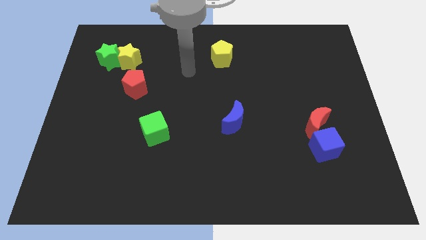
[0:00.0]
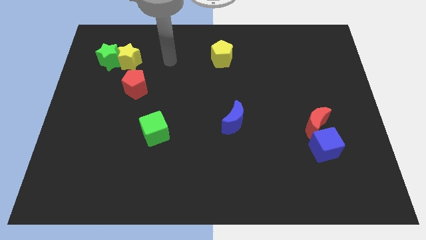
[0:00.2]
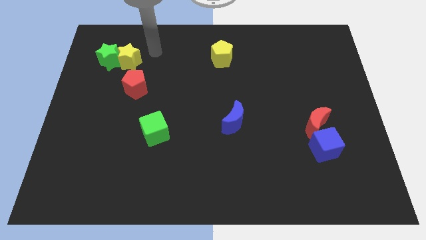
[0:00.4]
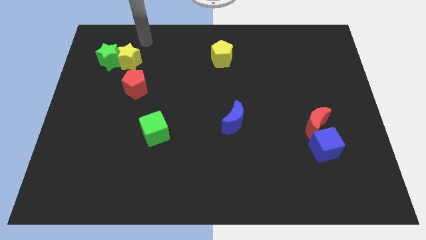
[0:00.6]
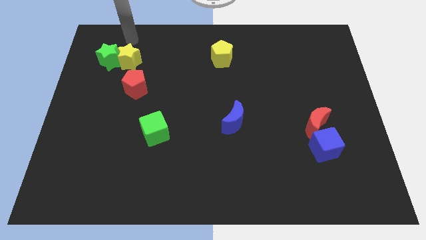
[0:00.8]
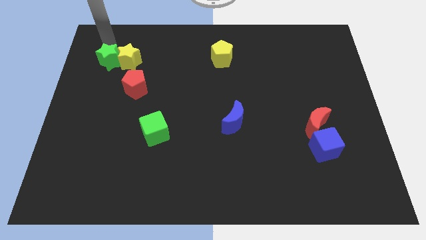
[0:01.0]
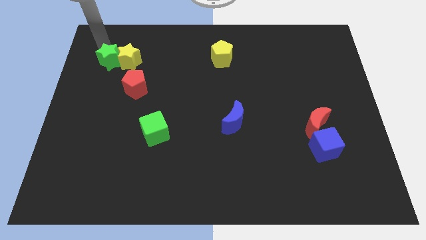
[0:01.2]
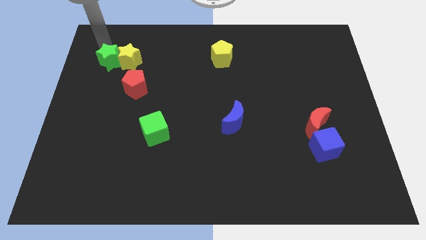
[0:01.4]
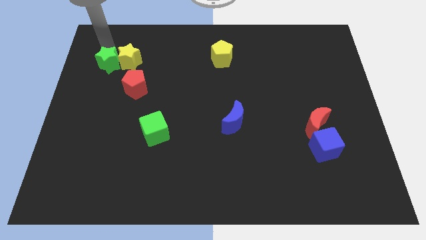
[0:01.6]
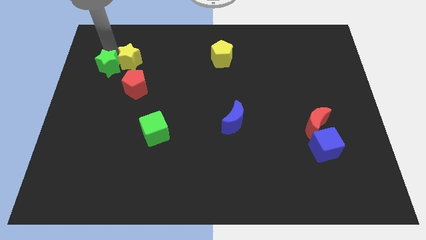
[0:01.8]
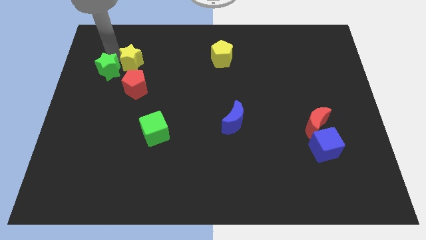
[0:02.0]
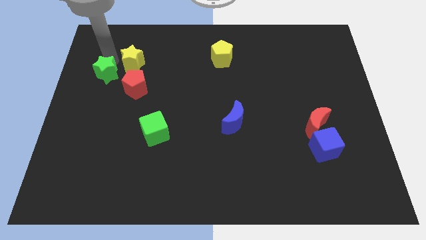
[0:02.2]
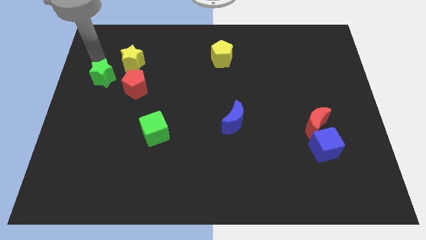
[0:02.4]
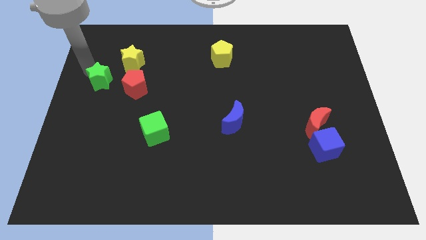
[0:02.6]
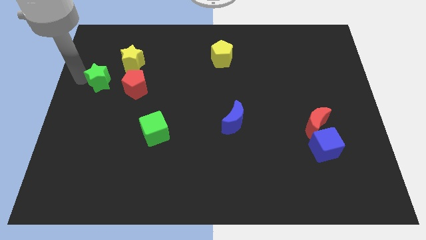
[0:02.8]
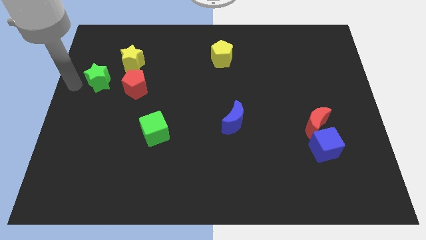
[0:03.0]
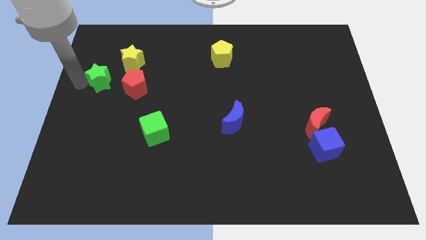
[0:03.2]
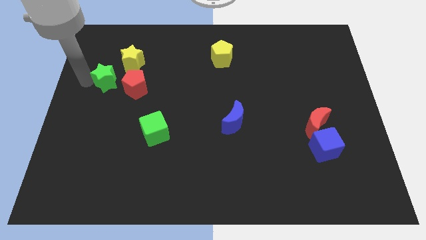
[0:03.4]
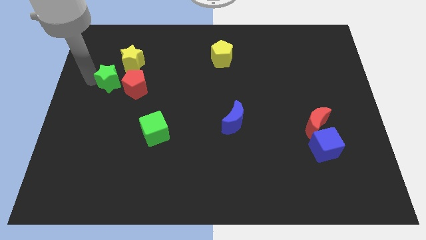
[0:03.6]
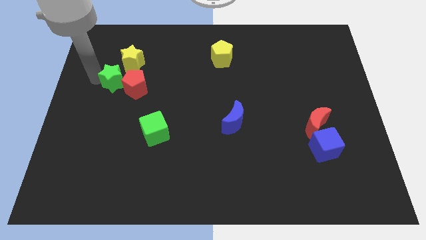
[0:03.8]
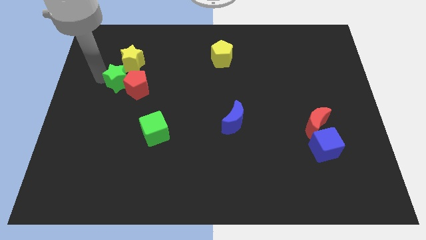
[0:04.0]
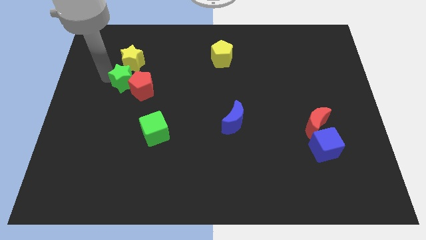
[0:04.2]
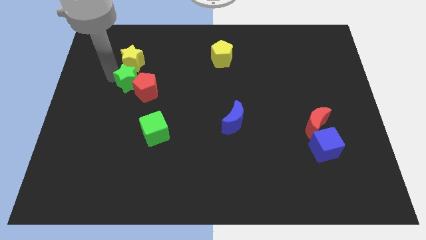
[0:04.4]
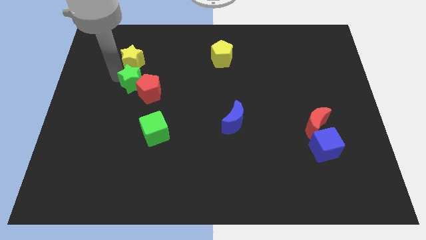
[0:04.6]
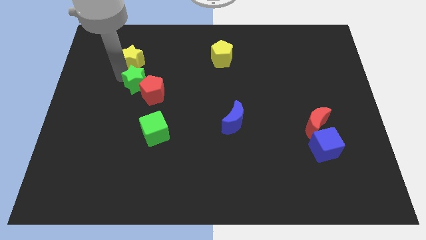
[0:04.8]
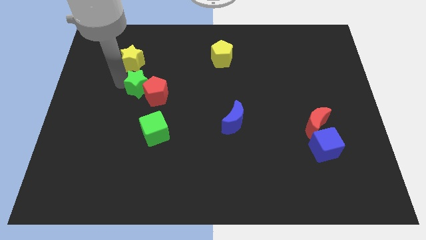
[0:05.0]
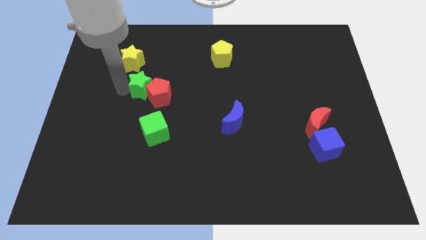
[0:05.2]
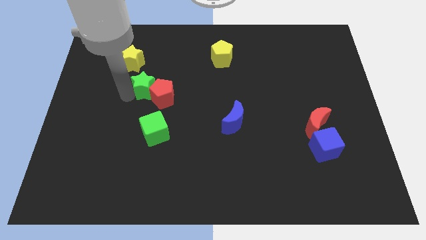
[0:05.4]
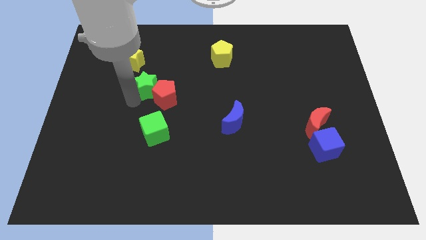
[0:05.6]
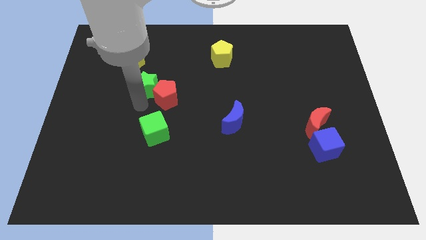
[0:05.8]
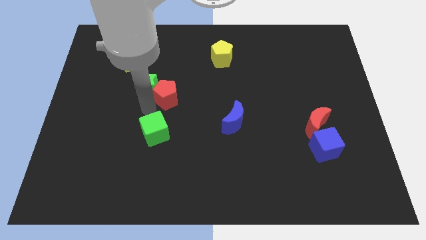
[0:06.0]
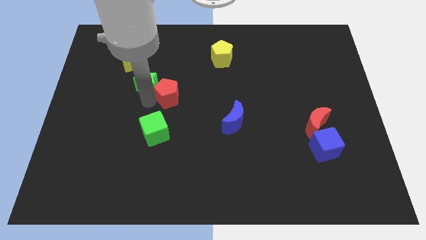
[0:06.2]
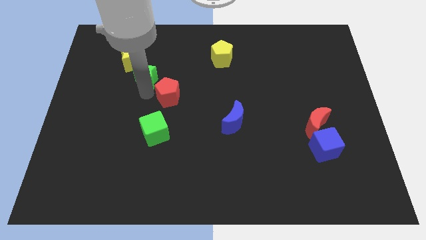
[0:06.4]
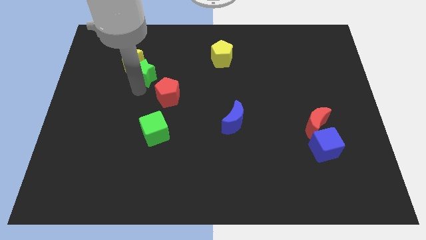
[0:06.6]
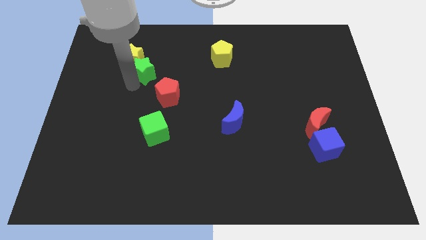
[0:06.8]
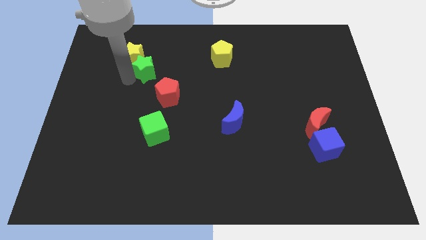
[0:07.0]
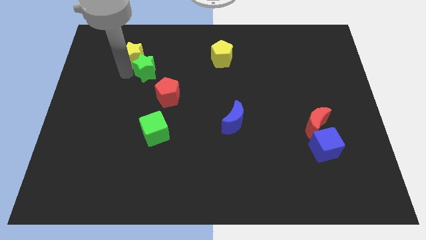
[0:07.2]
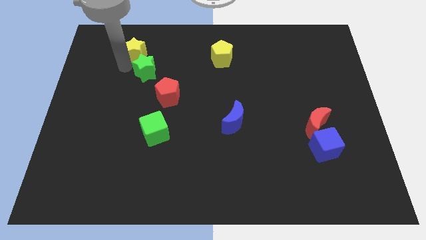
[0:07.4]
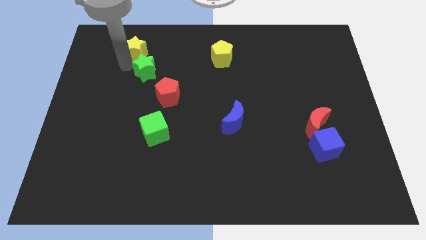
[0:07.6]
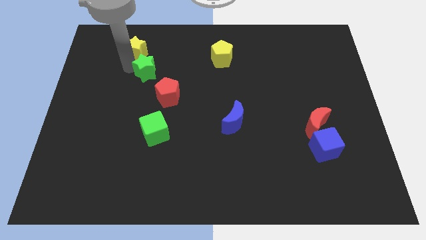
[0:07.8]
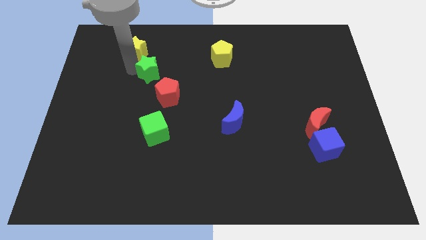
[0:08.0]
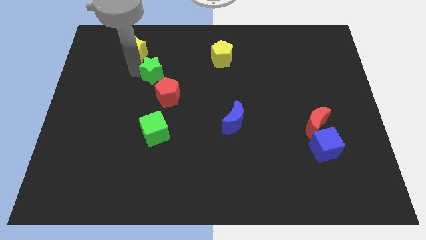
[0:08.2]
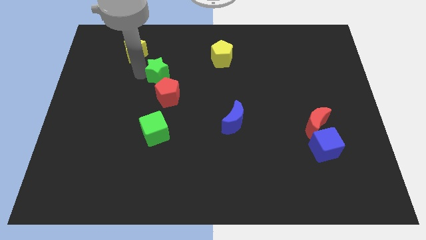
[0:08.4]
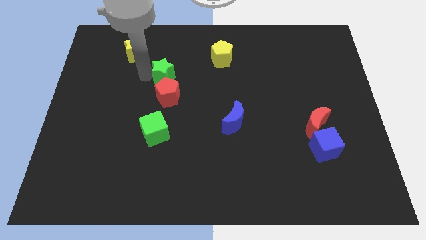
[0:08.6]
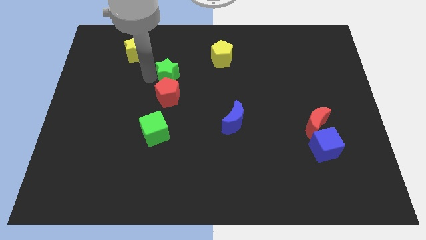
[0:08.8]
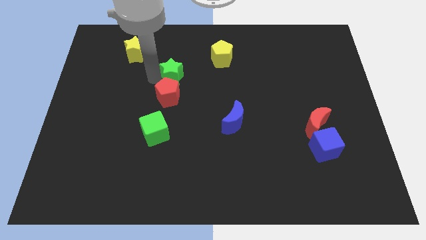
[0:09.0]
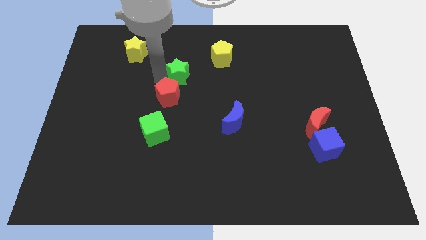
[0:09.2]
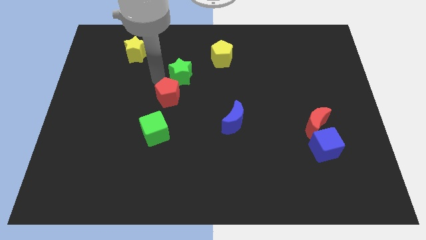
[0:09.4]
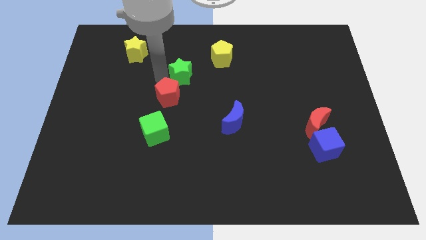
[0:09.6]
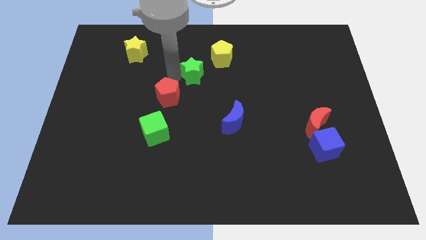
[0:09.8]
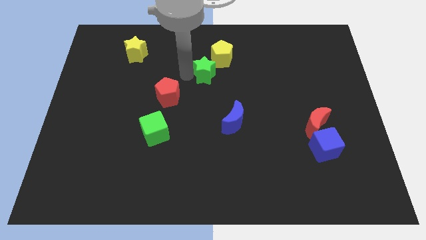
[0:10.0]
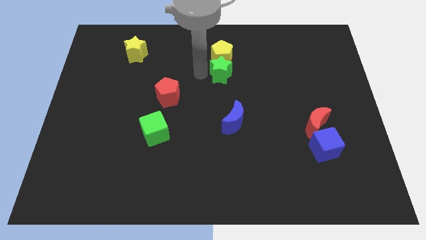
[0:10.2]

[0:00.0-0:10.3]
push the green star to the bottom right of the yellow pentagon

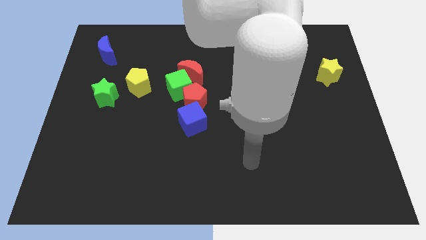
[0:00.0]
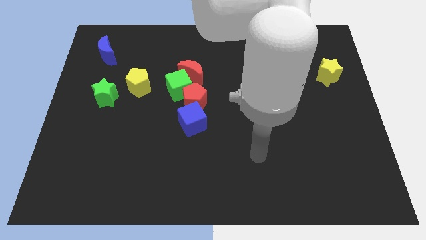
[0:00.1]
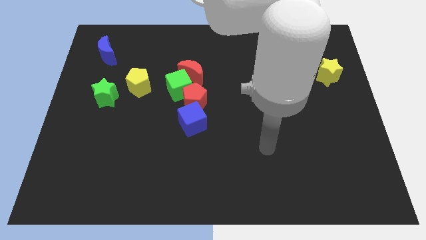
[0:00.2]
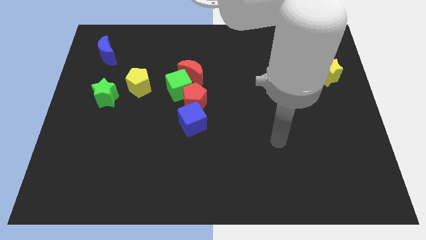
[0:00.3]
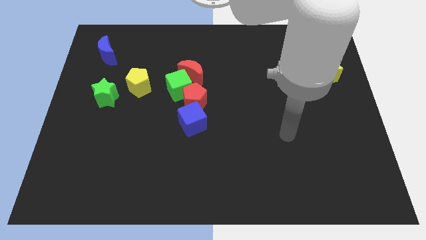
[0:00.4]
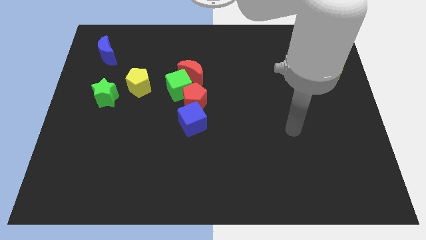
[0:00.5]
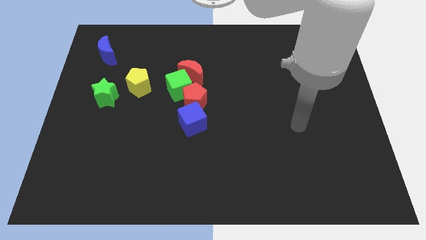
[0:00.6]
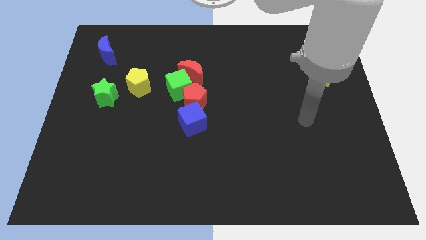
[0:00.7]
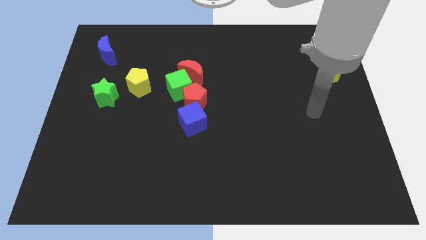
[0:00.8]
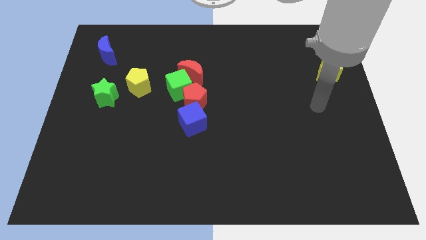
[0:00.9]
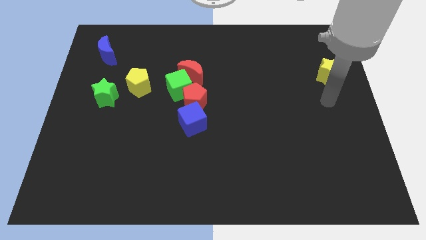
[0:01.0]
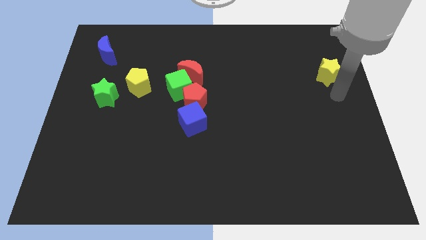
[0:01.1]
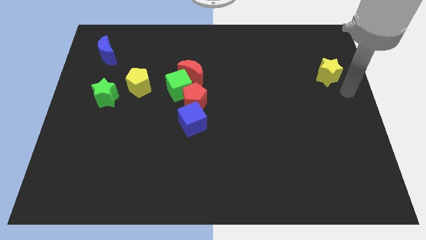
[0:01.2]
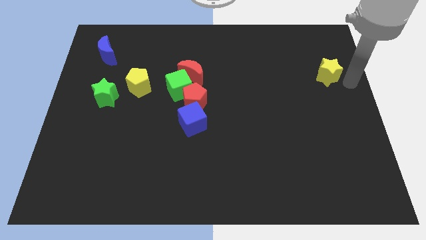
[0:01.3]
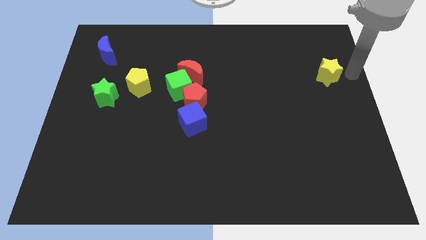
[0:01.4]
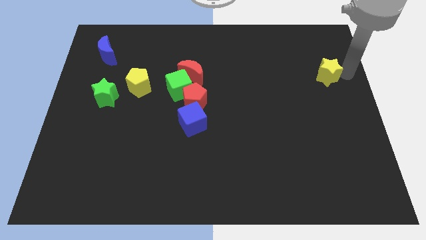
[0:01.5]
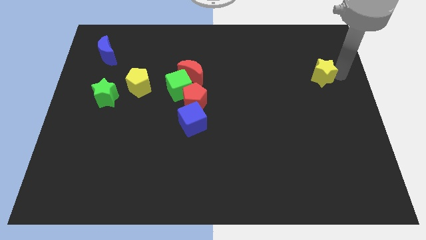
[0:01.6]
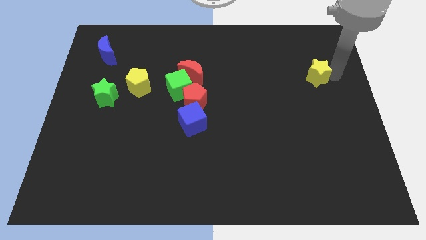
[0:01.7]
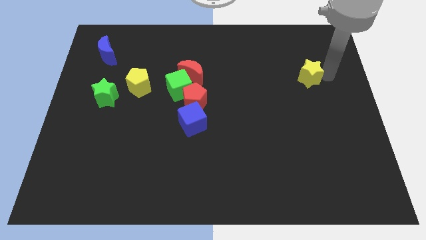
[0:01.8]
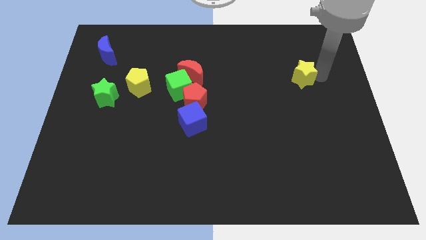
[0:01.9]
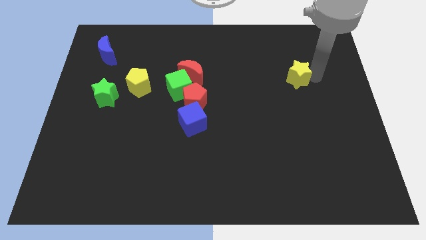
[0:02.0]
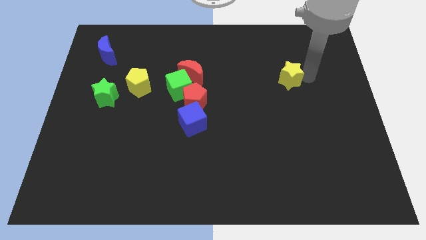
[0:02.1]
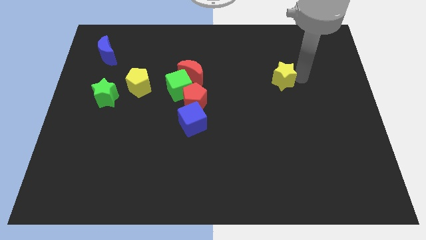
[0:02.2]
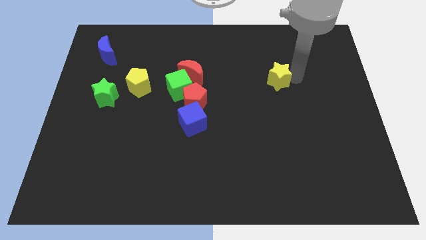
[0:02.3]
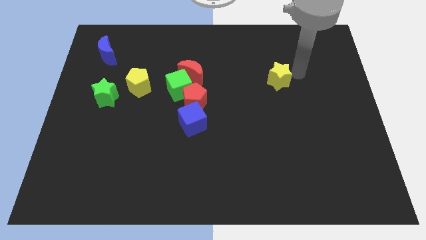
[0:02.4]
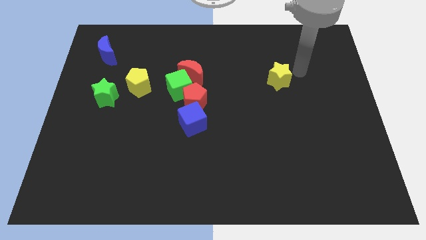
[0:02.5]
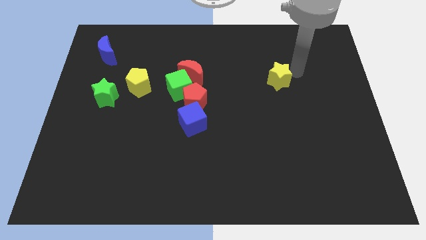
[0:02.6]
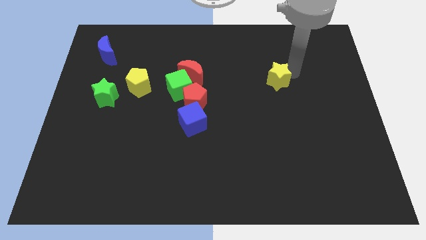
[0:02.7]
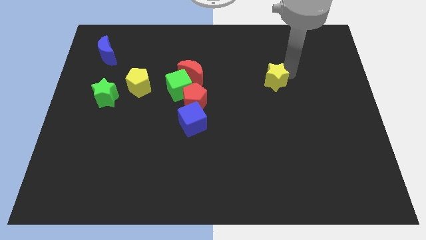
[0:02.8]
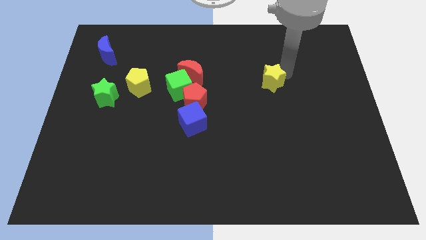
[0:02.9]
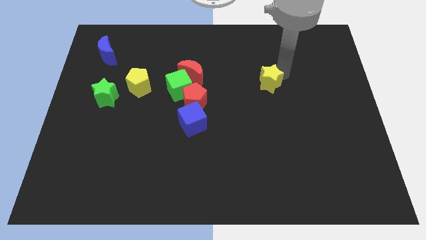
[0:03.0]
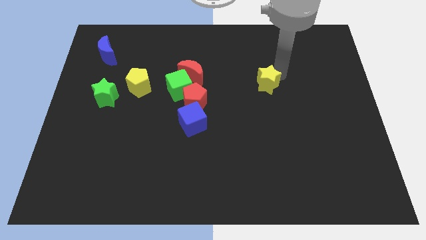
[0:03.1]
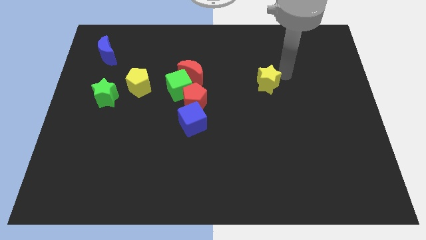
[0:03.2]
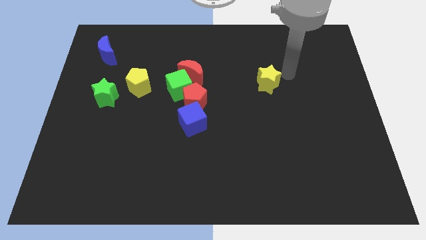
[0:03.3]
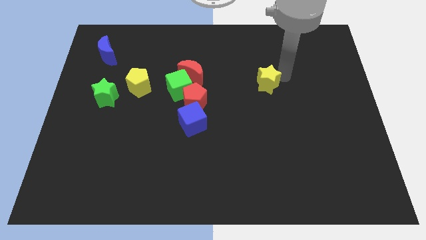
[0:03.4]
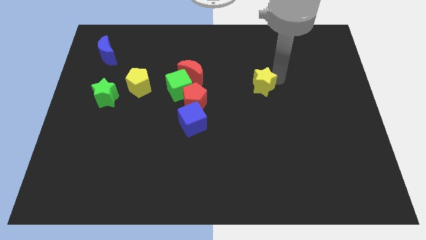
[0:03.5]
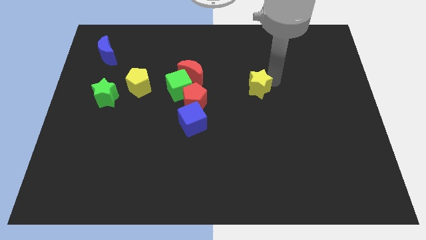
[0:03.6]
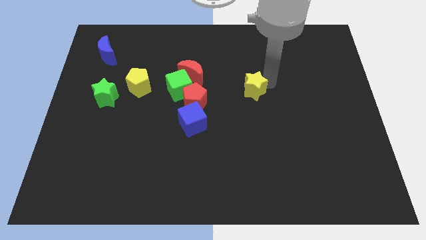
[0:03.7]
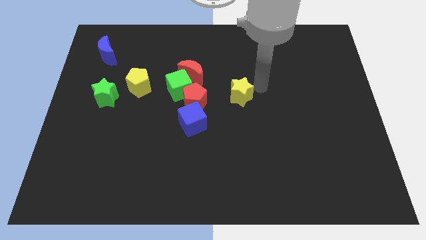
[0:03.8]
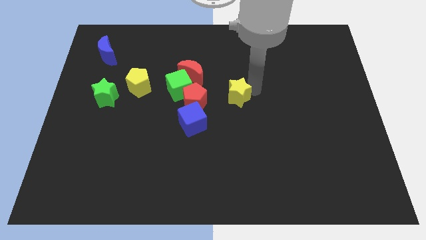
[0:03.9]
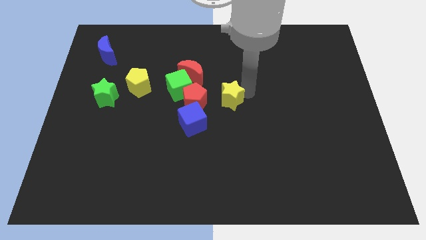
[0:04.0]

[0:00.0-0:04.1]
push the yellow star to the top right side of the blue cube
